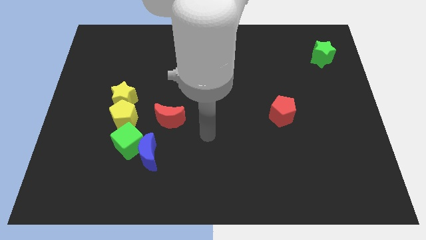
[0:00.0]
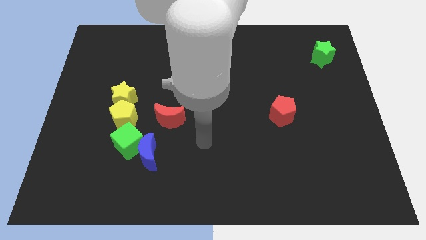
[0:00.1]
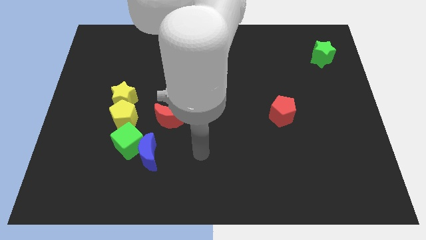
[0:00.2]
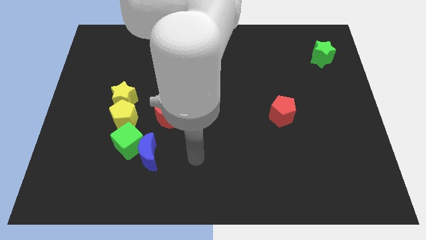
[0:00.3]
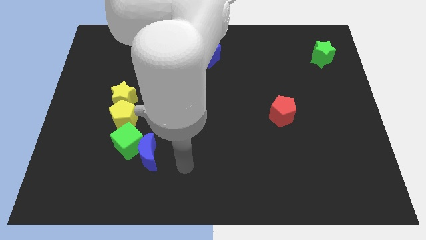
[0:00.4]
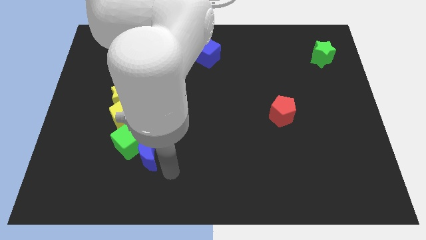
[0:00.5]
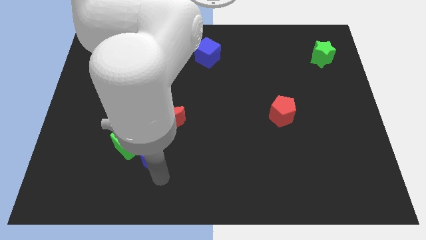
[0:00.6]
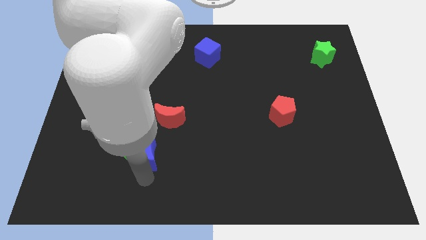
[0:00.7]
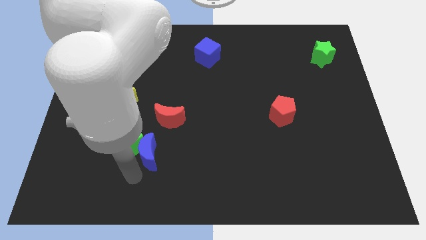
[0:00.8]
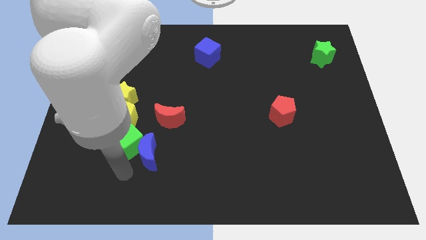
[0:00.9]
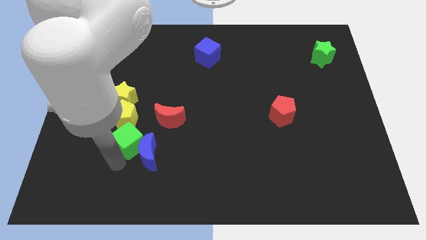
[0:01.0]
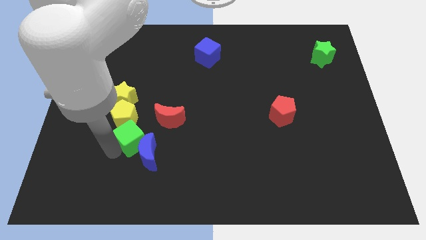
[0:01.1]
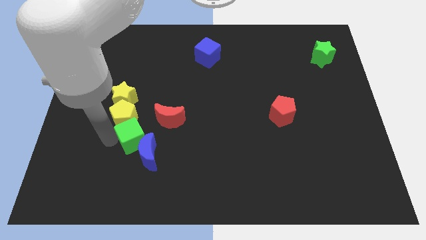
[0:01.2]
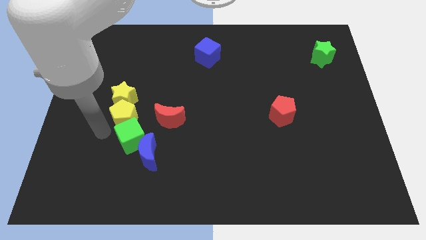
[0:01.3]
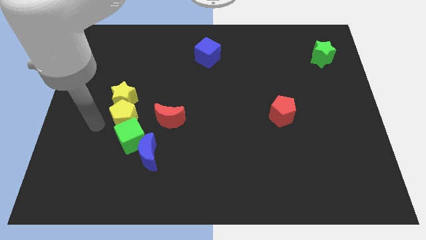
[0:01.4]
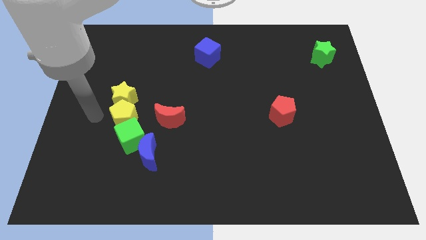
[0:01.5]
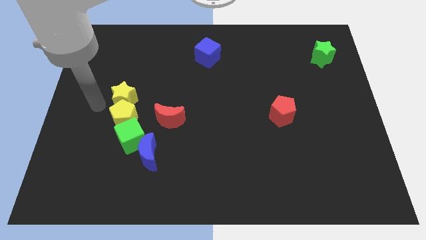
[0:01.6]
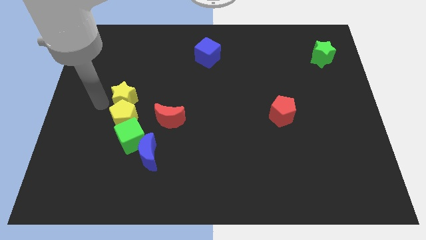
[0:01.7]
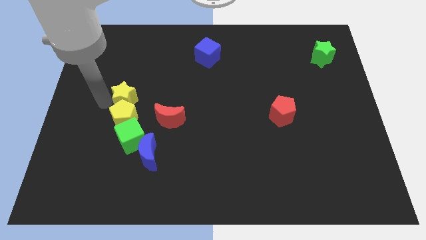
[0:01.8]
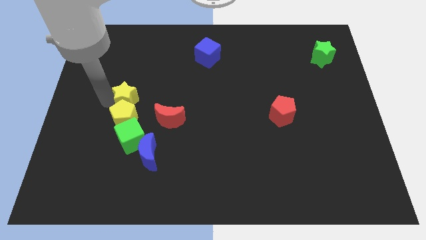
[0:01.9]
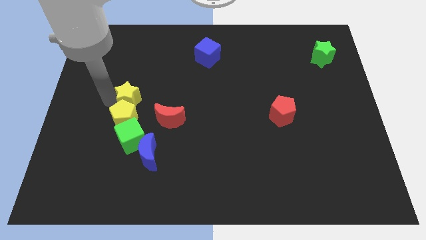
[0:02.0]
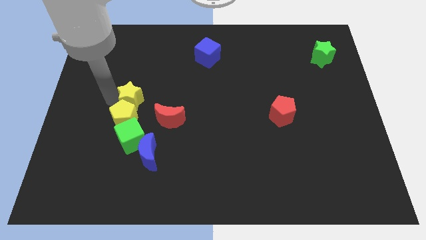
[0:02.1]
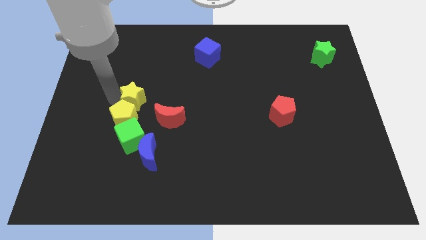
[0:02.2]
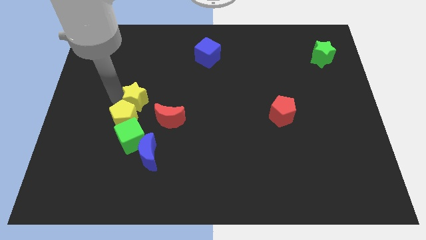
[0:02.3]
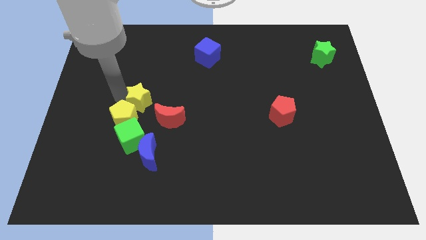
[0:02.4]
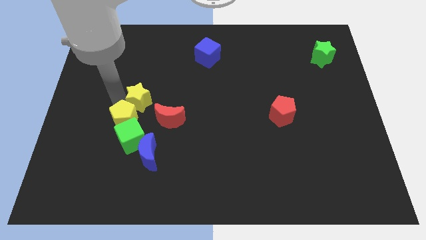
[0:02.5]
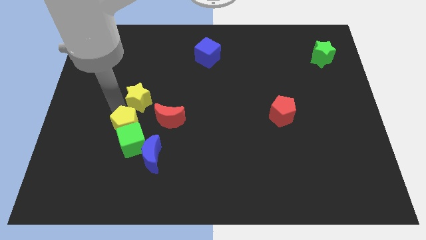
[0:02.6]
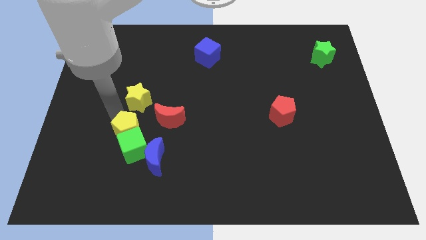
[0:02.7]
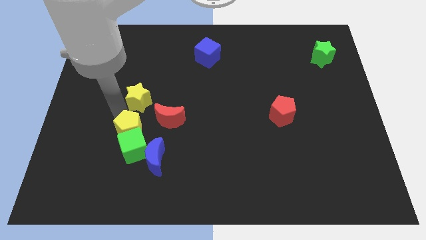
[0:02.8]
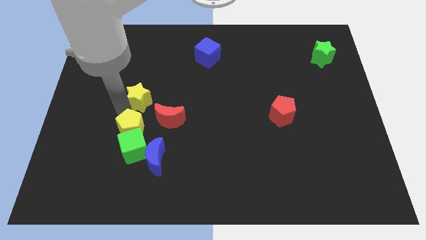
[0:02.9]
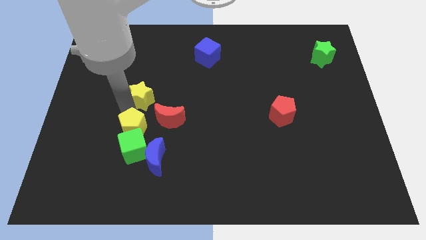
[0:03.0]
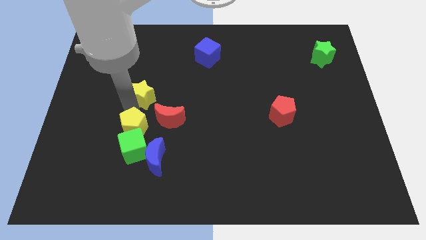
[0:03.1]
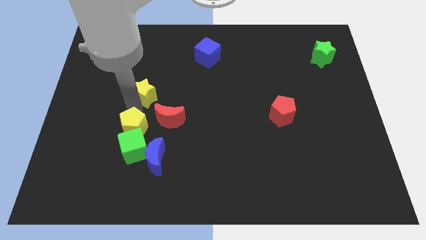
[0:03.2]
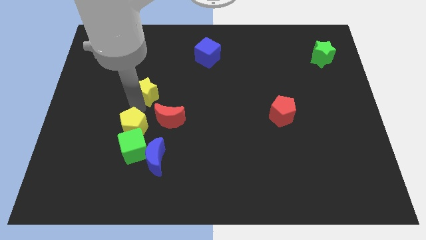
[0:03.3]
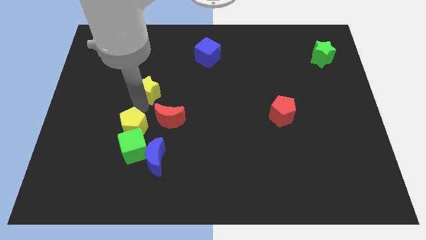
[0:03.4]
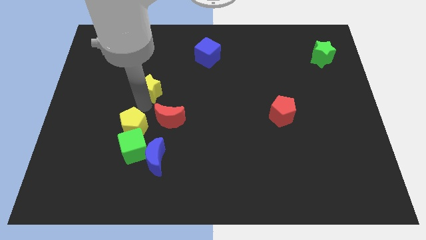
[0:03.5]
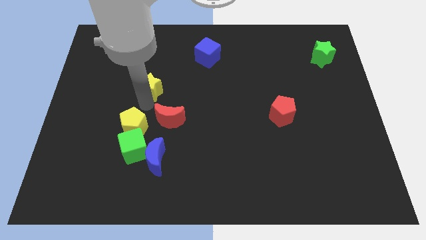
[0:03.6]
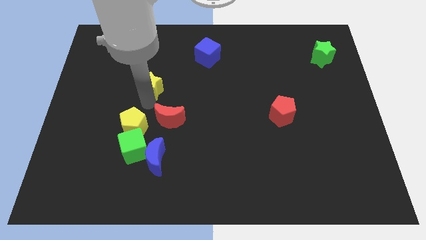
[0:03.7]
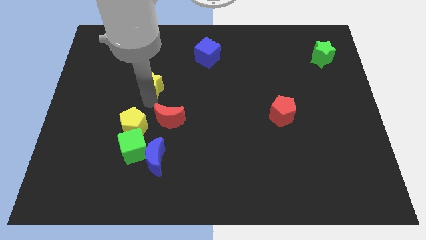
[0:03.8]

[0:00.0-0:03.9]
move the yellow star a bit upwards and then right

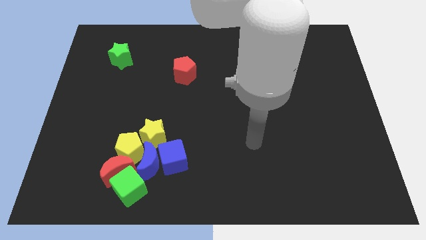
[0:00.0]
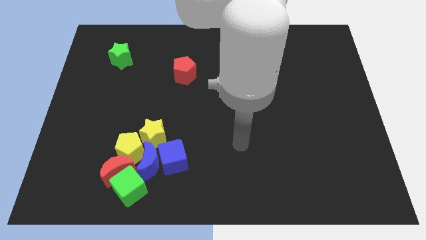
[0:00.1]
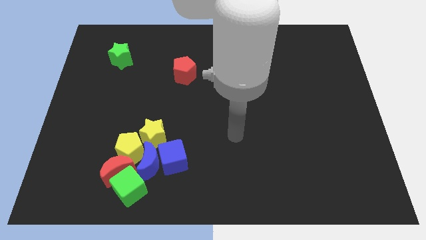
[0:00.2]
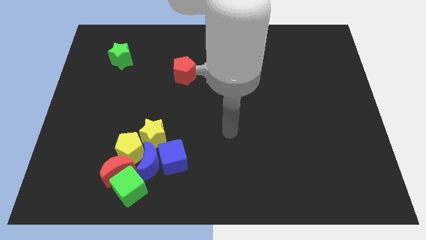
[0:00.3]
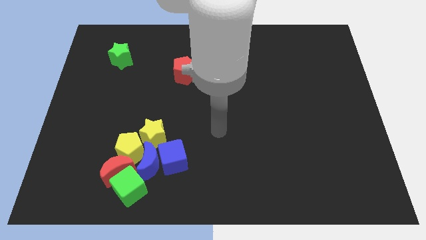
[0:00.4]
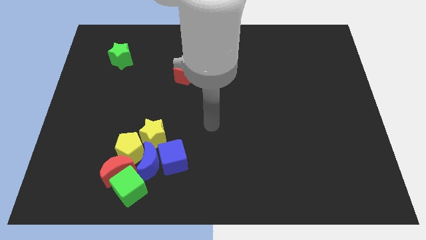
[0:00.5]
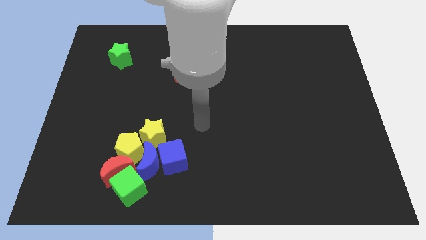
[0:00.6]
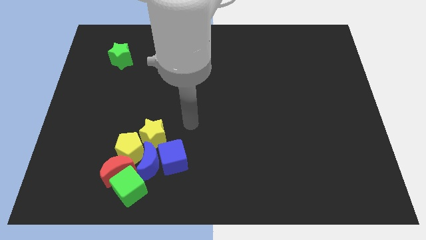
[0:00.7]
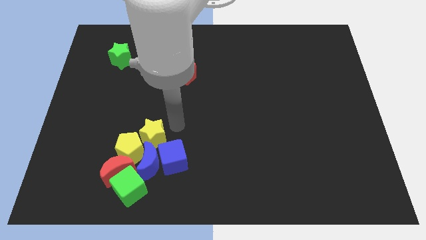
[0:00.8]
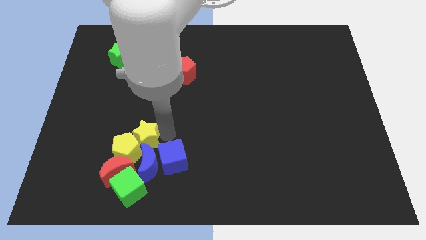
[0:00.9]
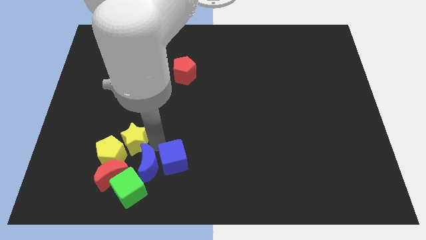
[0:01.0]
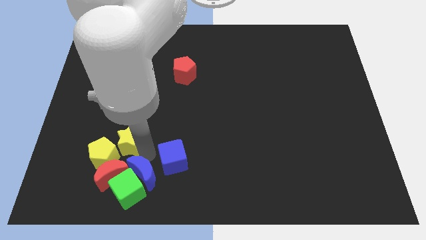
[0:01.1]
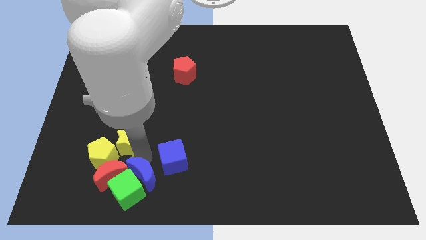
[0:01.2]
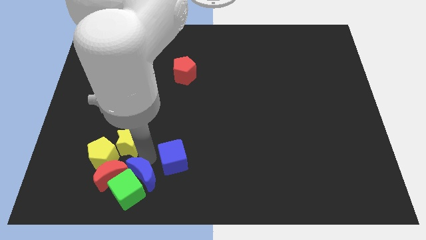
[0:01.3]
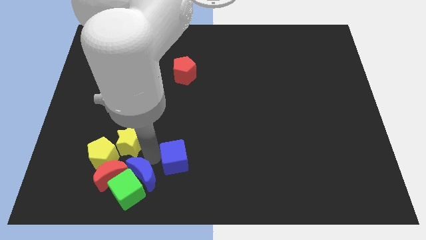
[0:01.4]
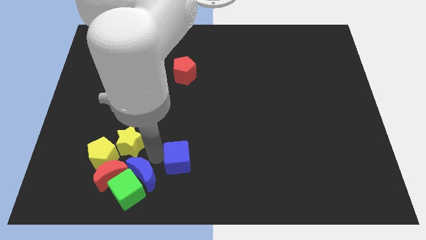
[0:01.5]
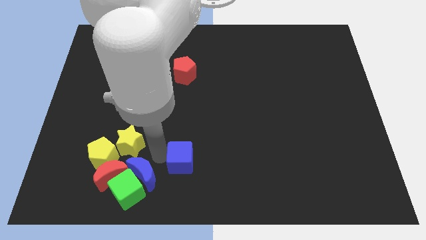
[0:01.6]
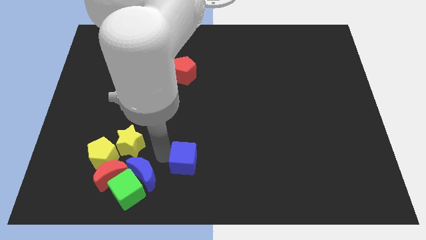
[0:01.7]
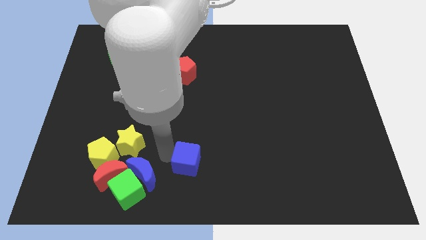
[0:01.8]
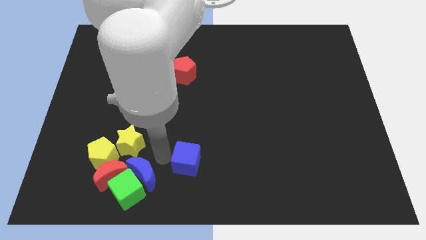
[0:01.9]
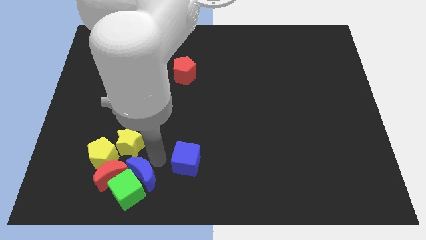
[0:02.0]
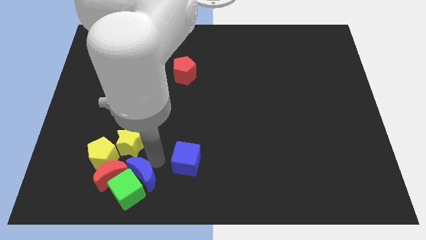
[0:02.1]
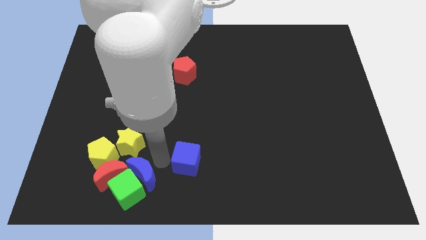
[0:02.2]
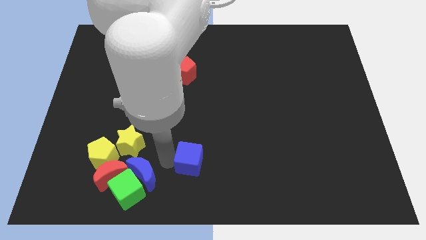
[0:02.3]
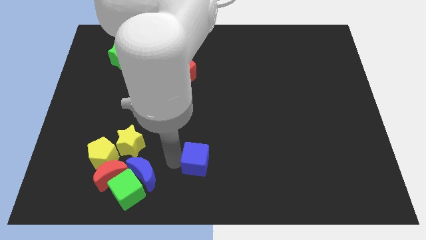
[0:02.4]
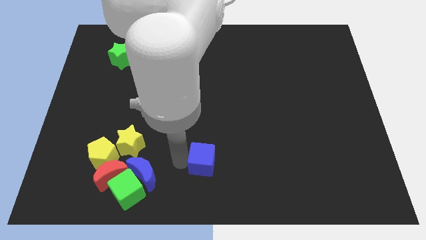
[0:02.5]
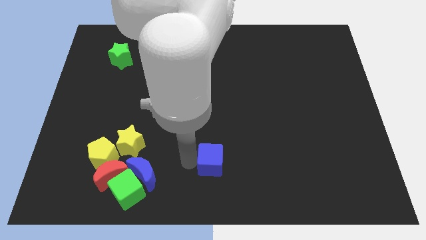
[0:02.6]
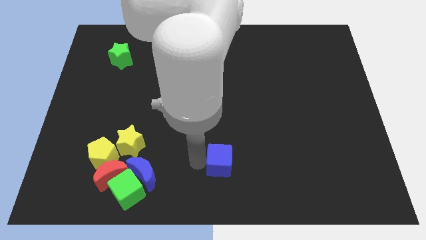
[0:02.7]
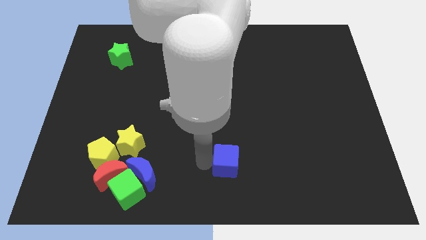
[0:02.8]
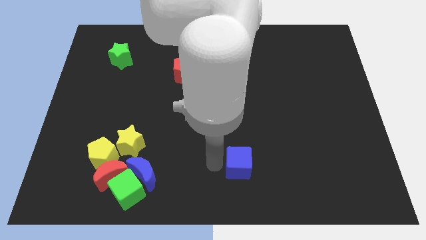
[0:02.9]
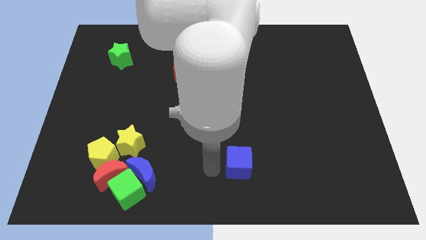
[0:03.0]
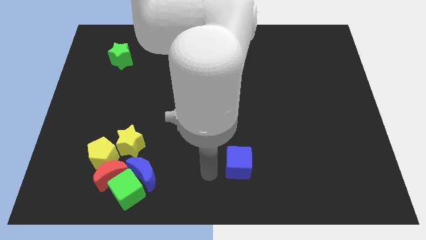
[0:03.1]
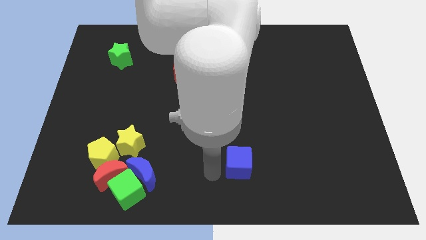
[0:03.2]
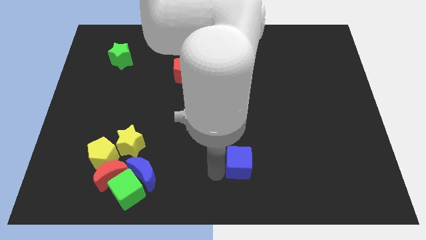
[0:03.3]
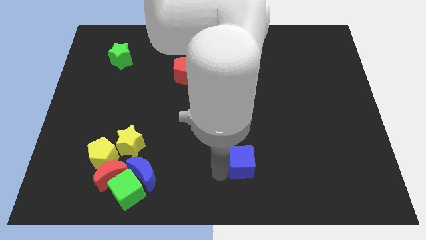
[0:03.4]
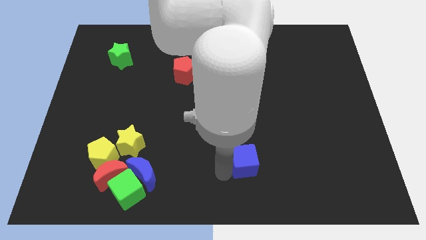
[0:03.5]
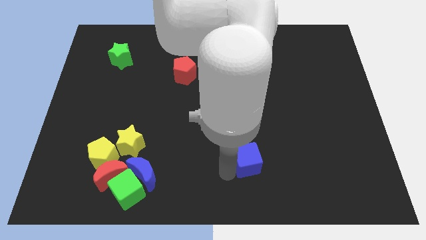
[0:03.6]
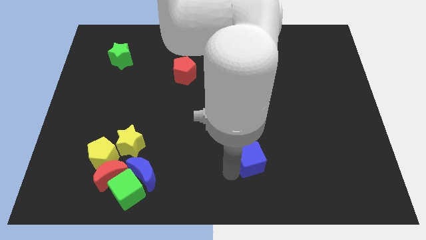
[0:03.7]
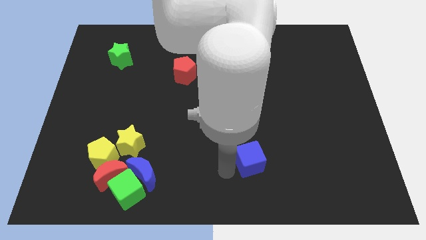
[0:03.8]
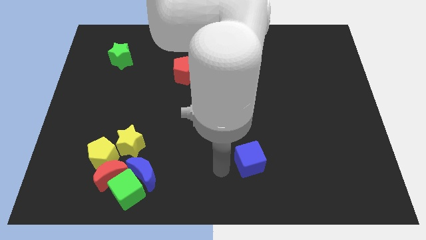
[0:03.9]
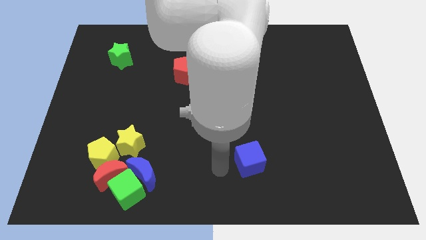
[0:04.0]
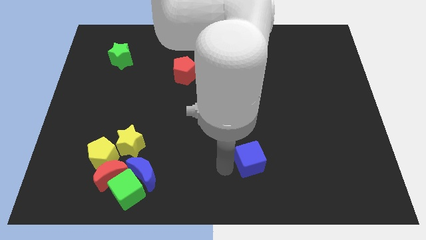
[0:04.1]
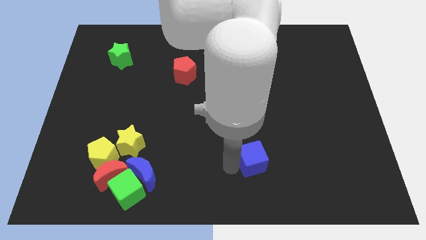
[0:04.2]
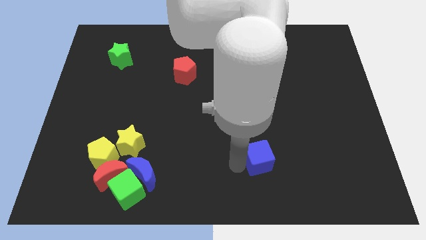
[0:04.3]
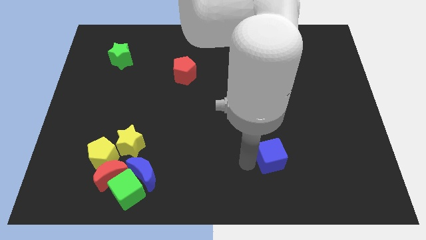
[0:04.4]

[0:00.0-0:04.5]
push the blue cube to the right
